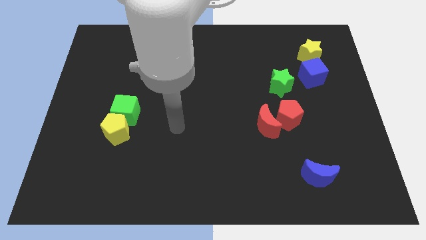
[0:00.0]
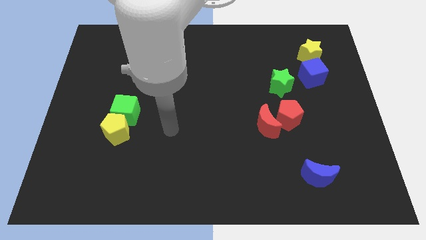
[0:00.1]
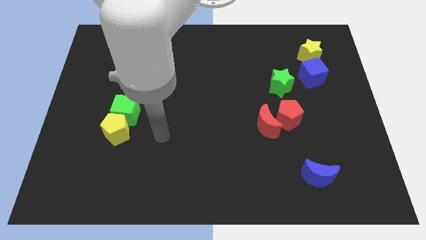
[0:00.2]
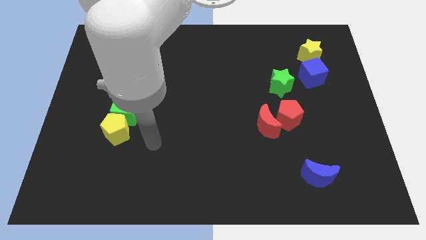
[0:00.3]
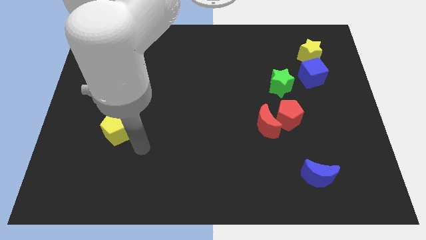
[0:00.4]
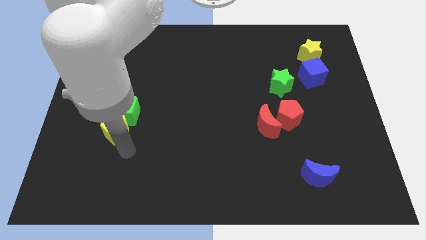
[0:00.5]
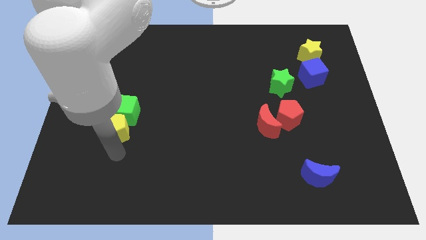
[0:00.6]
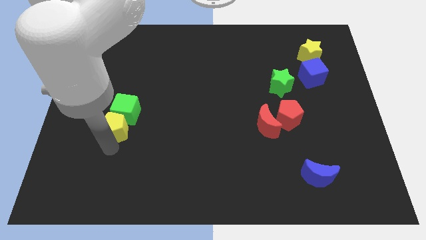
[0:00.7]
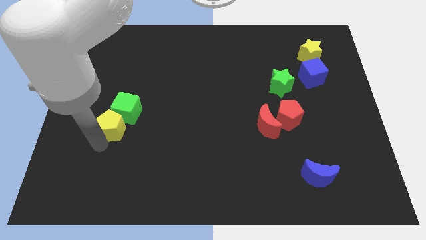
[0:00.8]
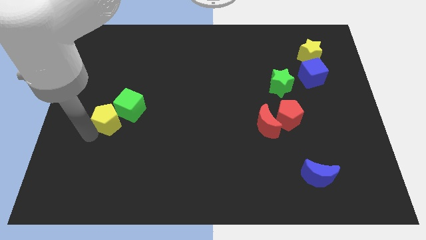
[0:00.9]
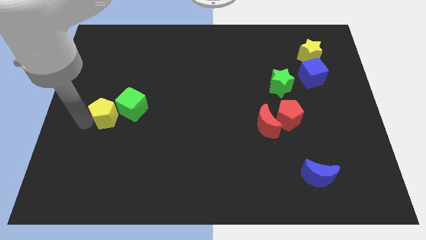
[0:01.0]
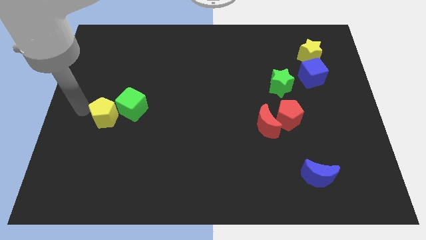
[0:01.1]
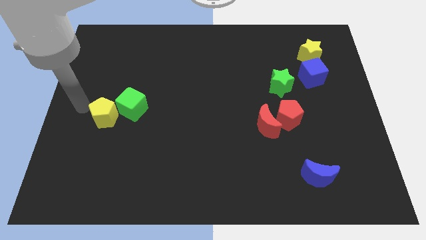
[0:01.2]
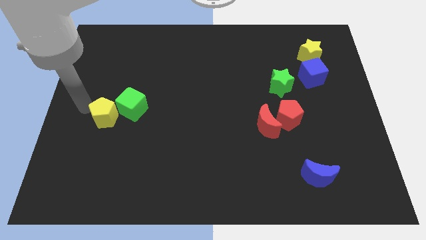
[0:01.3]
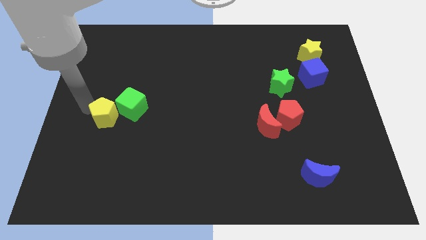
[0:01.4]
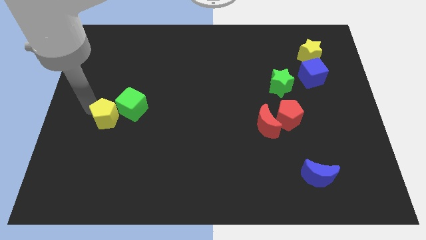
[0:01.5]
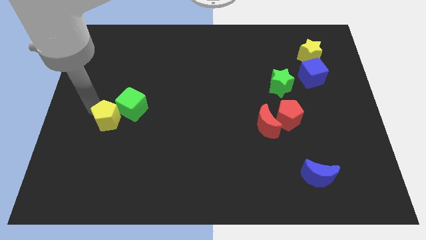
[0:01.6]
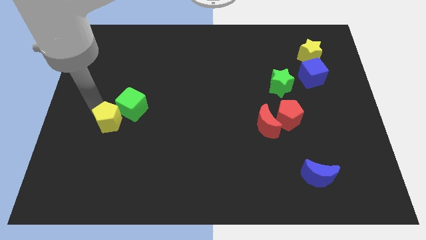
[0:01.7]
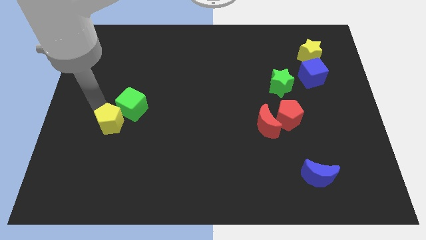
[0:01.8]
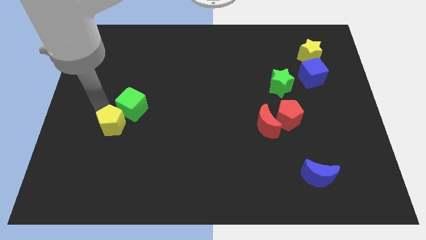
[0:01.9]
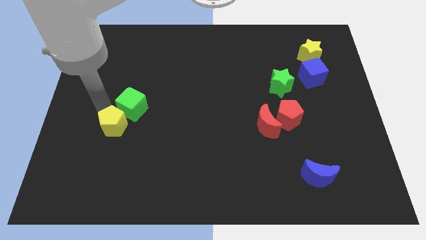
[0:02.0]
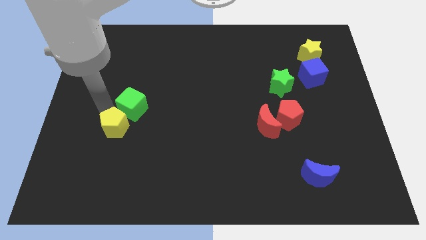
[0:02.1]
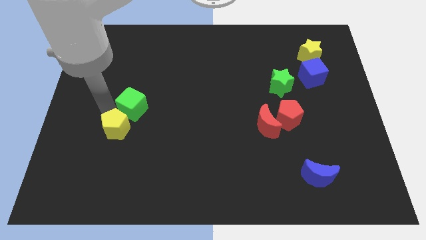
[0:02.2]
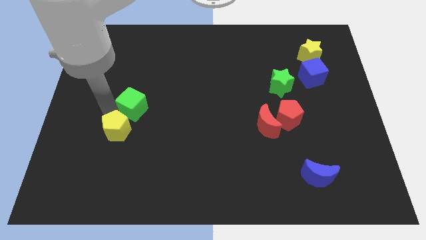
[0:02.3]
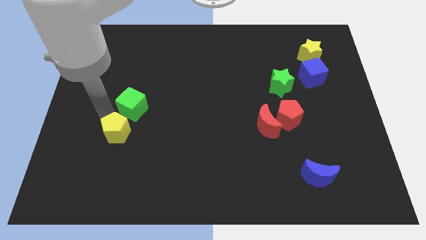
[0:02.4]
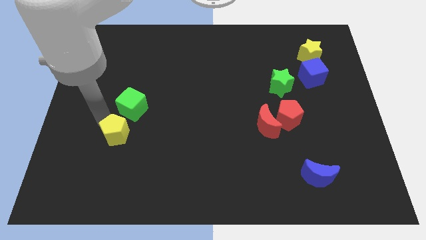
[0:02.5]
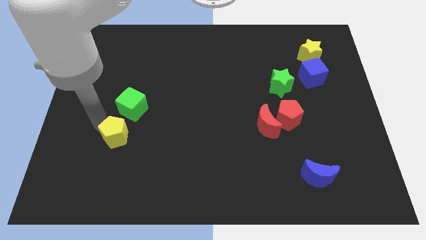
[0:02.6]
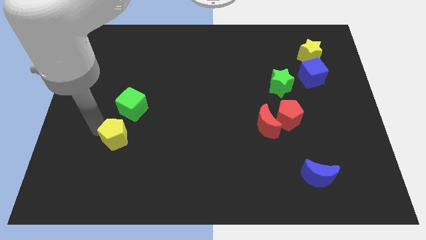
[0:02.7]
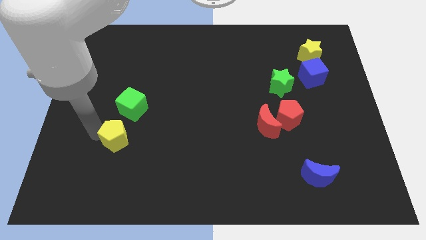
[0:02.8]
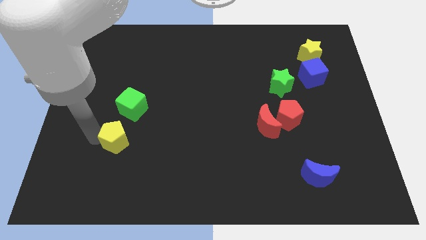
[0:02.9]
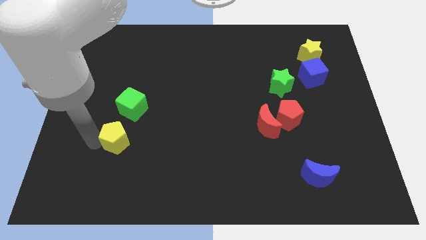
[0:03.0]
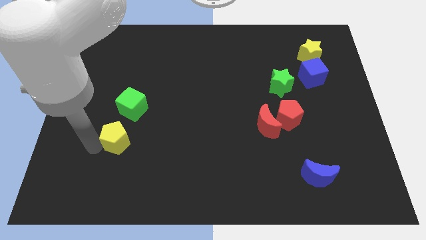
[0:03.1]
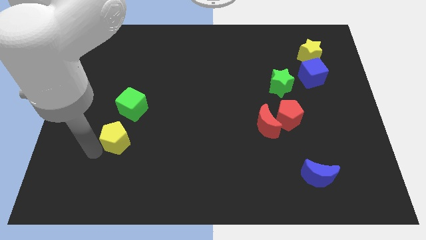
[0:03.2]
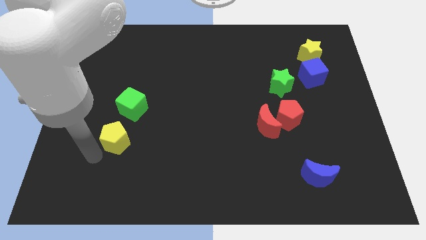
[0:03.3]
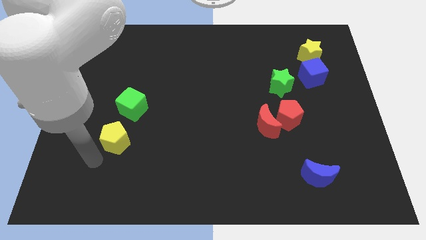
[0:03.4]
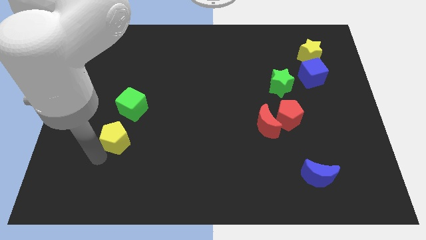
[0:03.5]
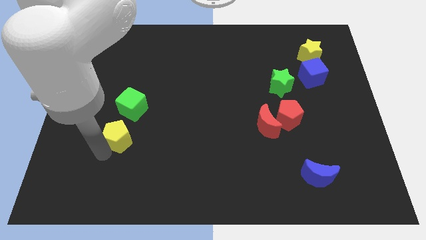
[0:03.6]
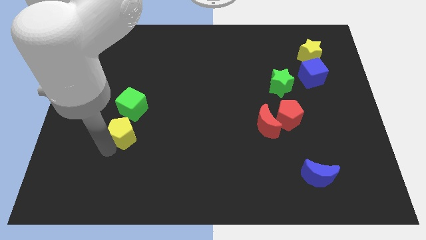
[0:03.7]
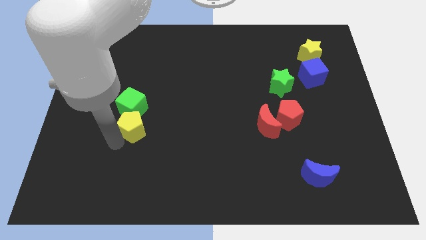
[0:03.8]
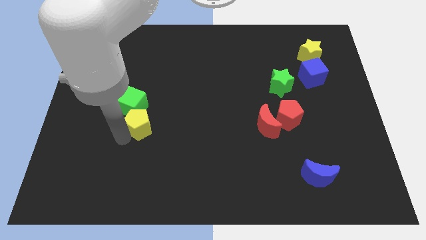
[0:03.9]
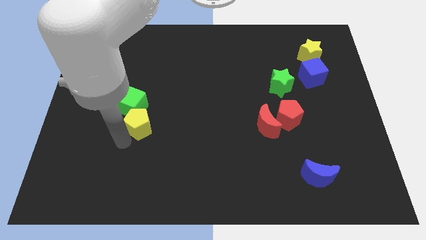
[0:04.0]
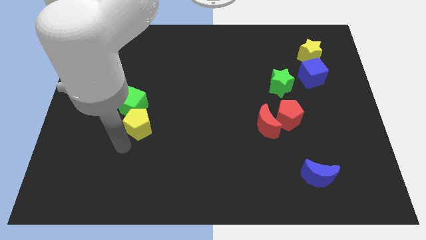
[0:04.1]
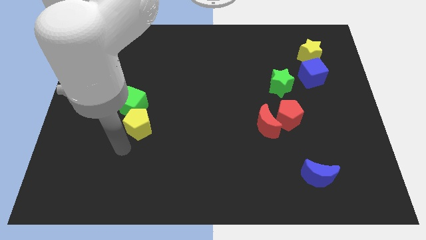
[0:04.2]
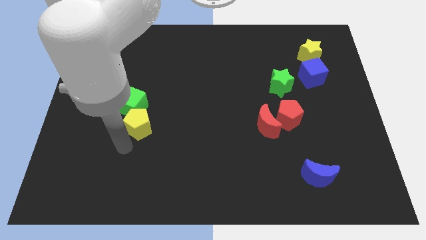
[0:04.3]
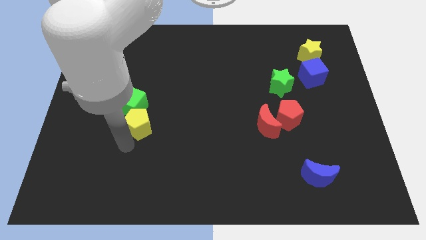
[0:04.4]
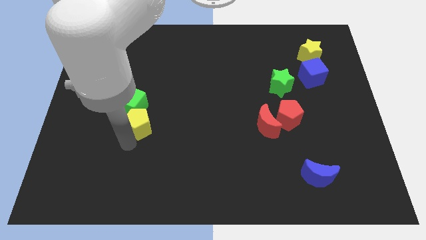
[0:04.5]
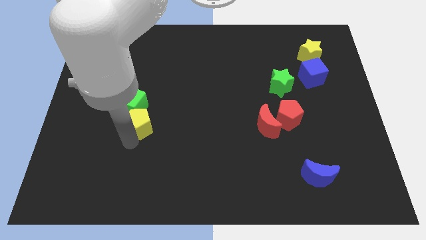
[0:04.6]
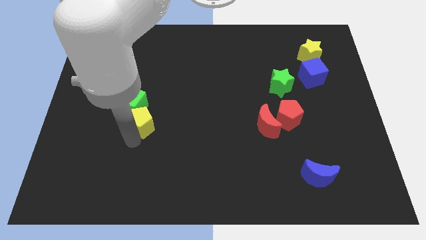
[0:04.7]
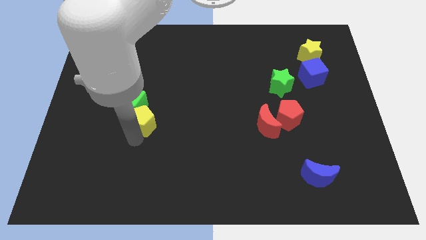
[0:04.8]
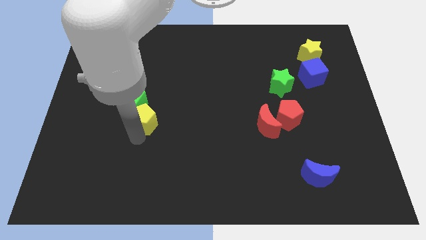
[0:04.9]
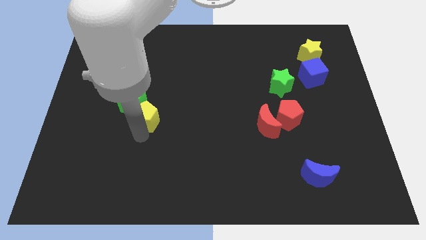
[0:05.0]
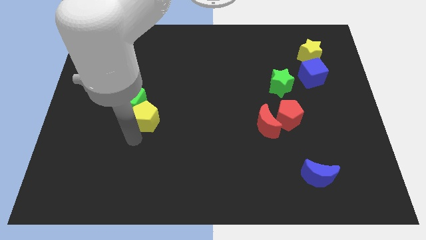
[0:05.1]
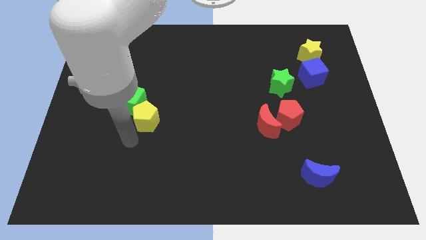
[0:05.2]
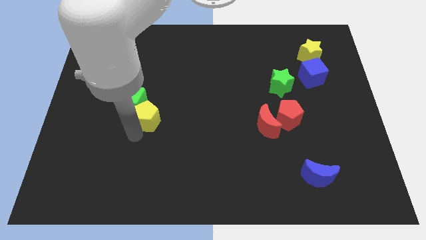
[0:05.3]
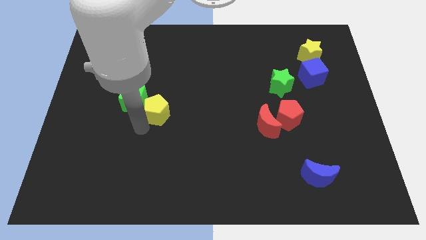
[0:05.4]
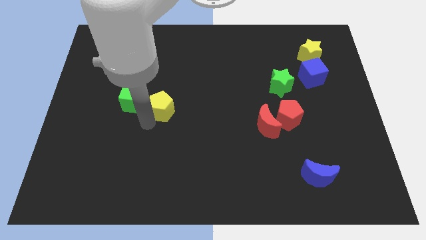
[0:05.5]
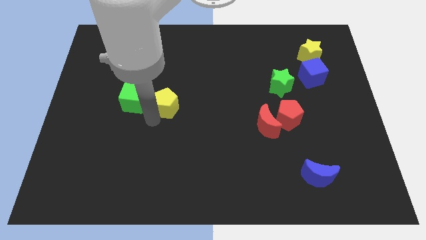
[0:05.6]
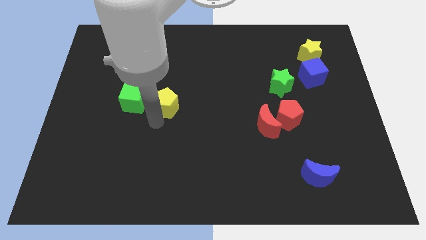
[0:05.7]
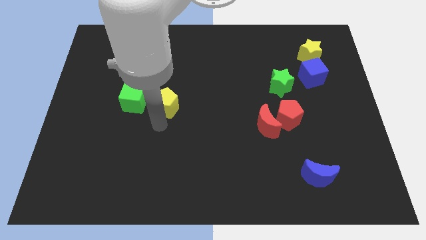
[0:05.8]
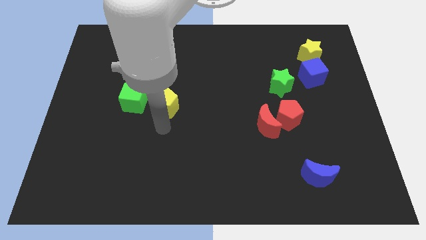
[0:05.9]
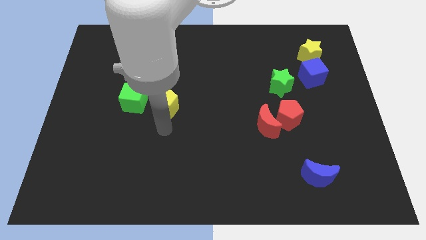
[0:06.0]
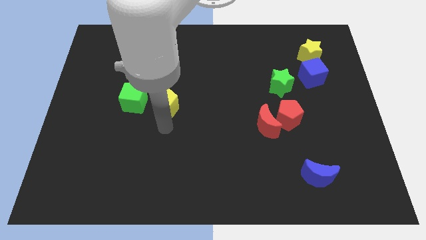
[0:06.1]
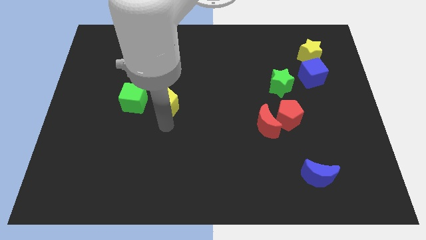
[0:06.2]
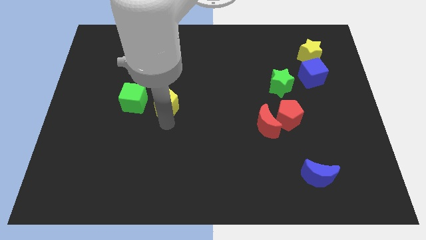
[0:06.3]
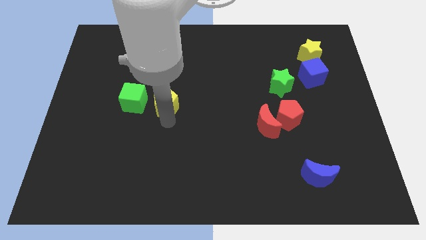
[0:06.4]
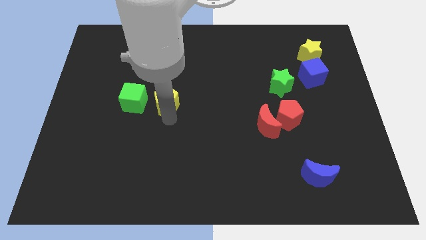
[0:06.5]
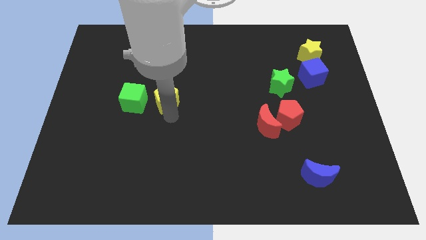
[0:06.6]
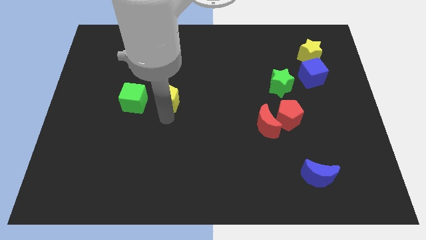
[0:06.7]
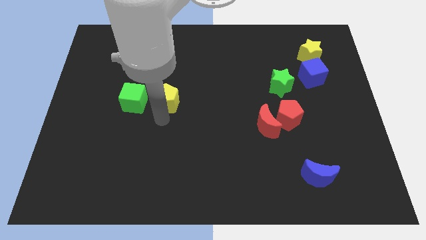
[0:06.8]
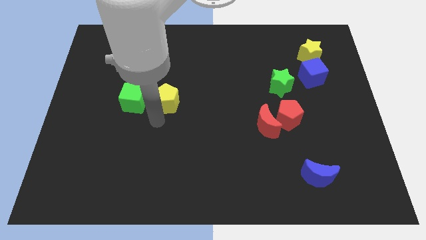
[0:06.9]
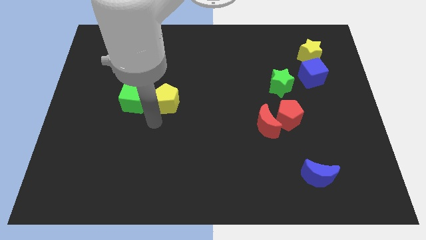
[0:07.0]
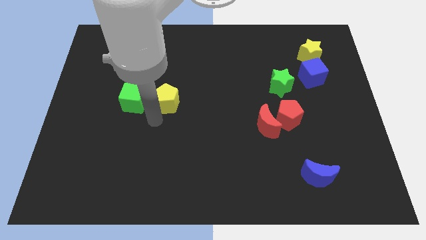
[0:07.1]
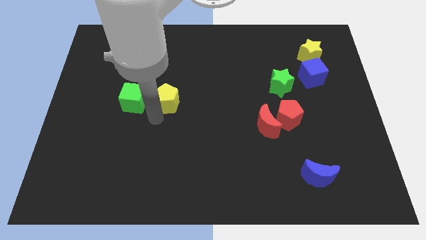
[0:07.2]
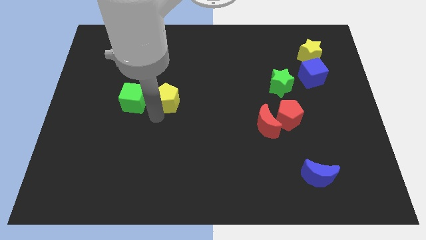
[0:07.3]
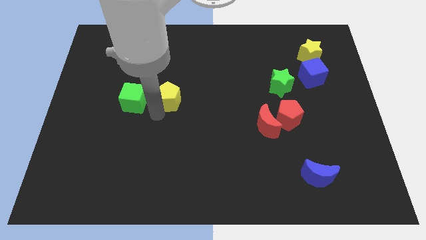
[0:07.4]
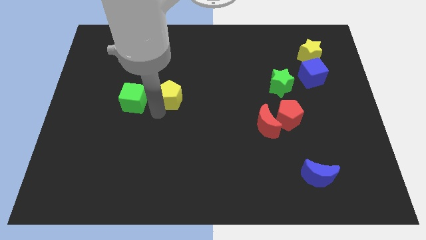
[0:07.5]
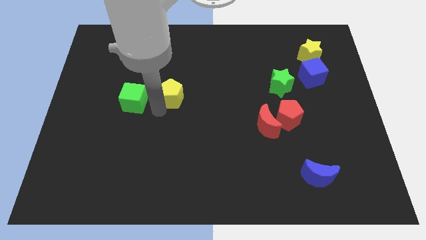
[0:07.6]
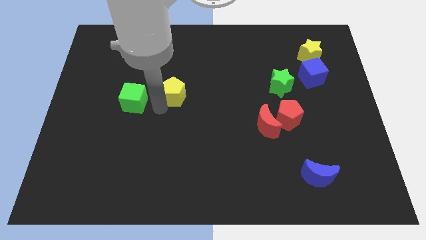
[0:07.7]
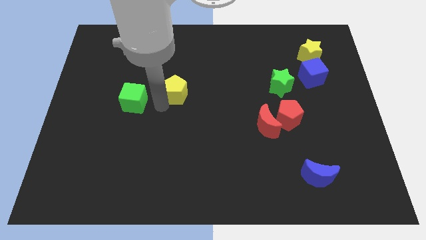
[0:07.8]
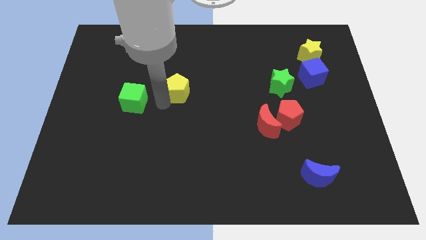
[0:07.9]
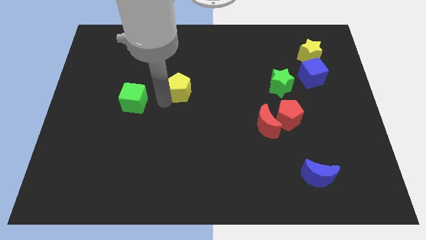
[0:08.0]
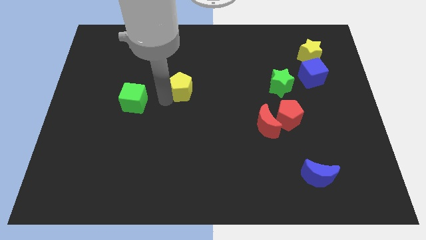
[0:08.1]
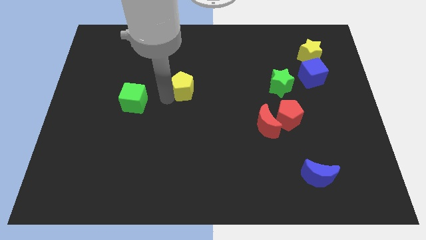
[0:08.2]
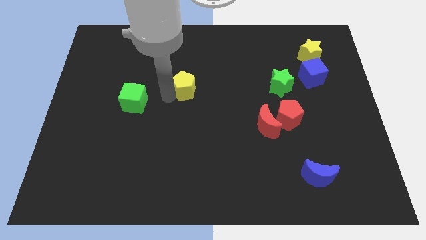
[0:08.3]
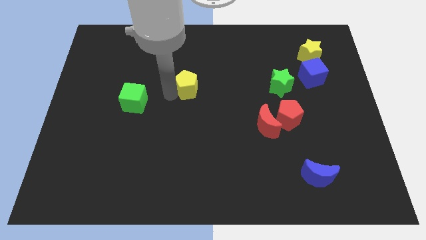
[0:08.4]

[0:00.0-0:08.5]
push the yellow pentagon up and then to the right
